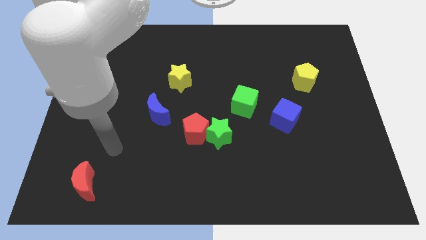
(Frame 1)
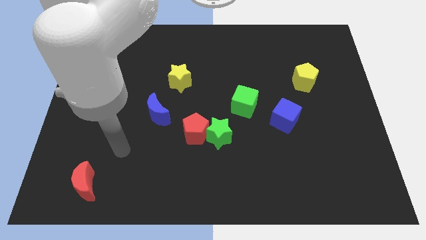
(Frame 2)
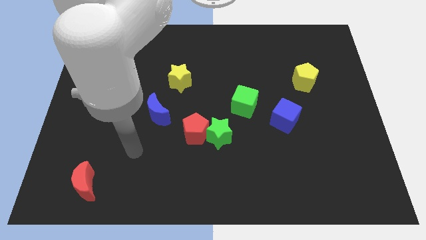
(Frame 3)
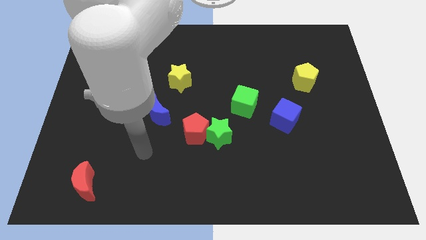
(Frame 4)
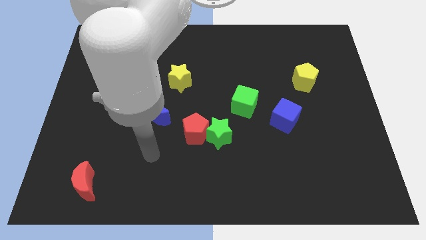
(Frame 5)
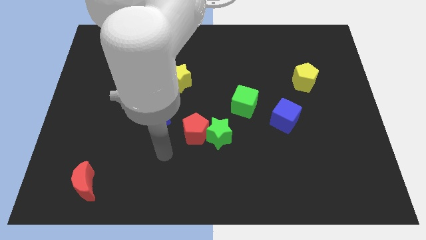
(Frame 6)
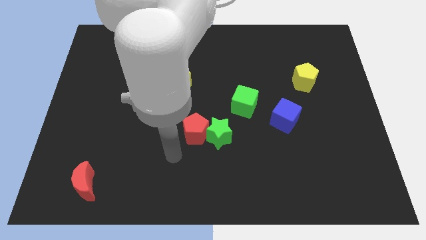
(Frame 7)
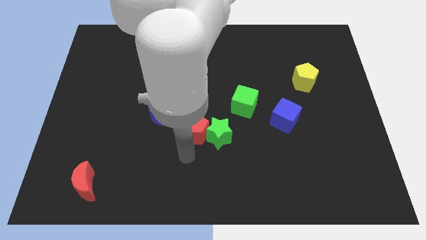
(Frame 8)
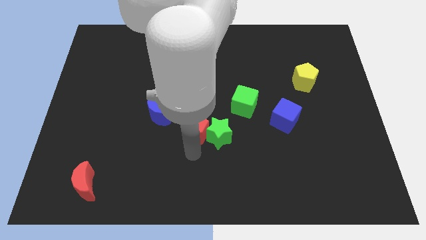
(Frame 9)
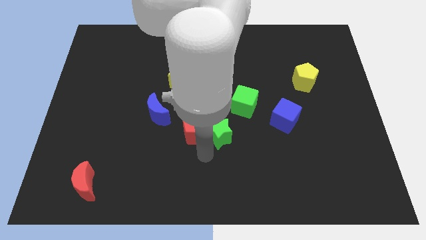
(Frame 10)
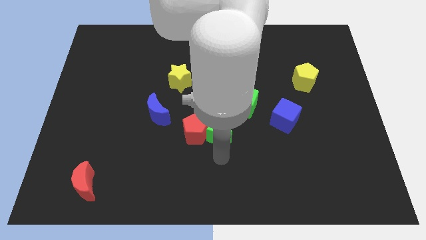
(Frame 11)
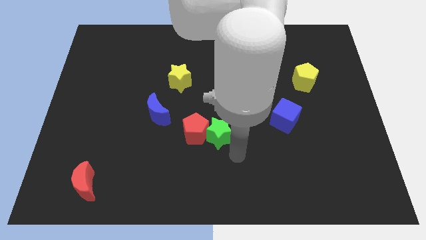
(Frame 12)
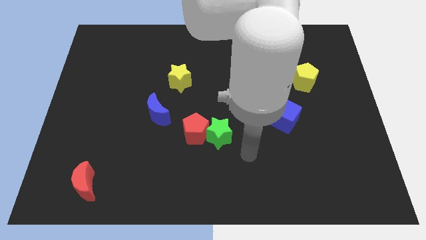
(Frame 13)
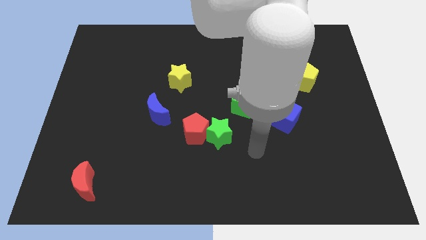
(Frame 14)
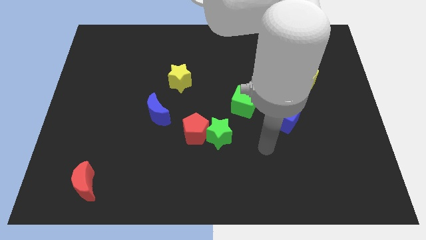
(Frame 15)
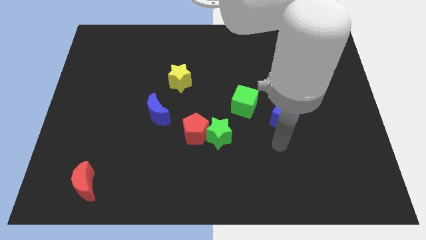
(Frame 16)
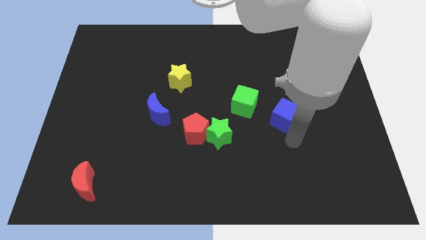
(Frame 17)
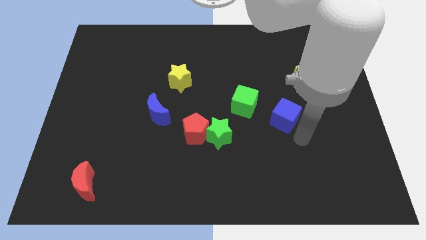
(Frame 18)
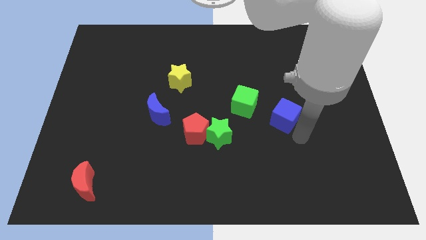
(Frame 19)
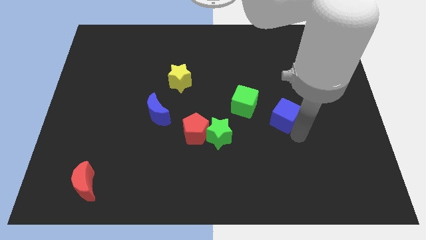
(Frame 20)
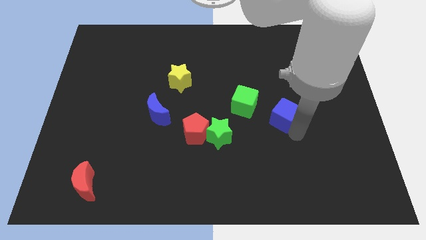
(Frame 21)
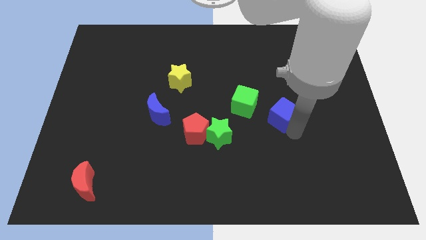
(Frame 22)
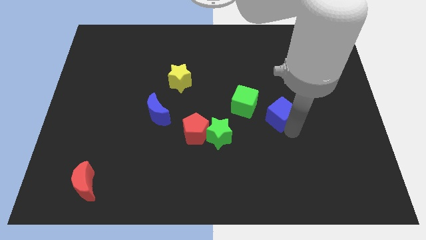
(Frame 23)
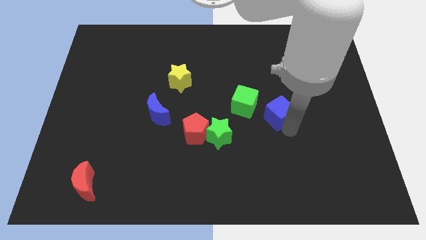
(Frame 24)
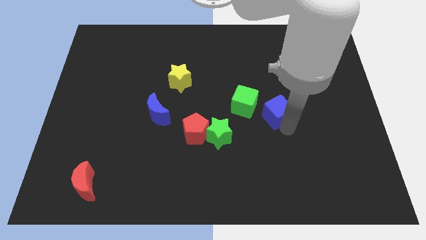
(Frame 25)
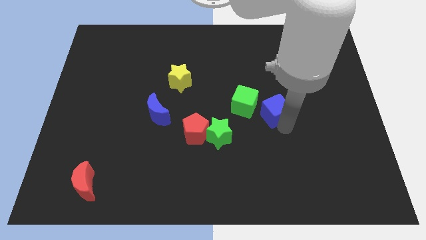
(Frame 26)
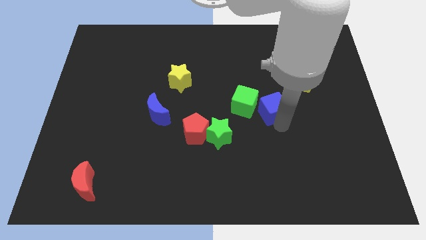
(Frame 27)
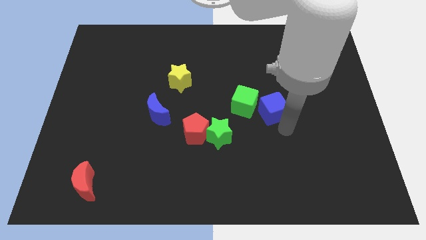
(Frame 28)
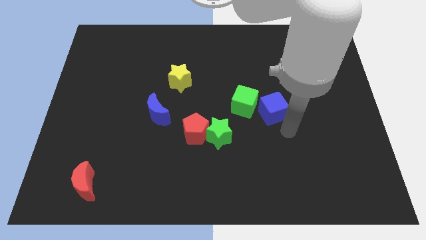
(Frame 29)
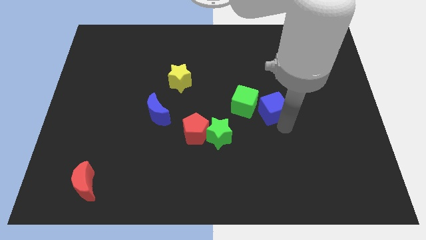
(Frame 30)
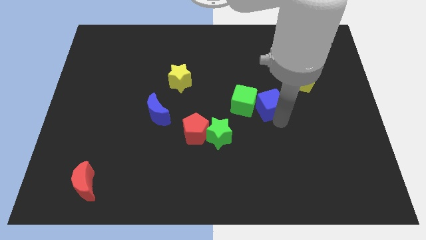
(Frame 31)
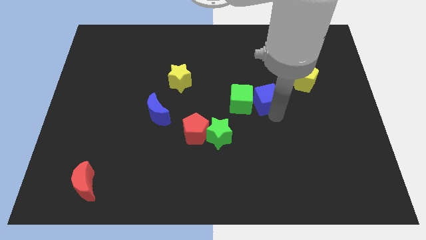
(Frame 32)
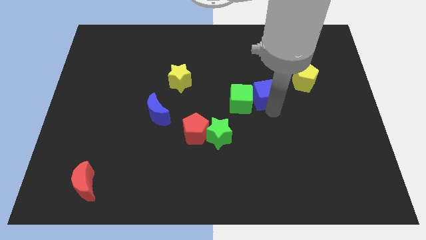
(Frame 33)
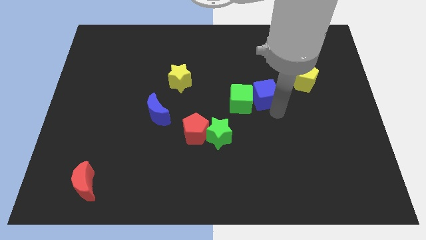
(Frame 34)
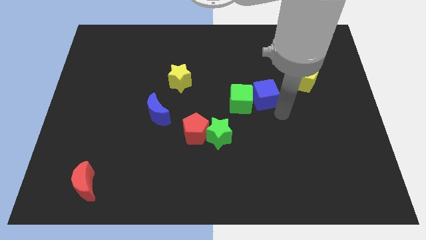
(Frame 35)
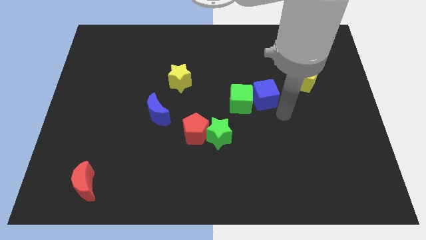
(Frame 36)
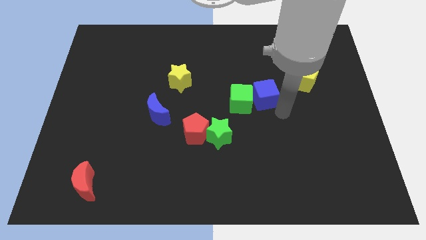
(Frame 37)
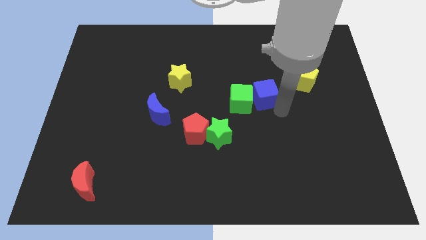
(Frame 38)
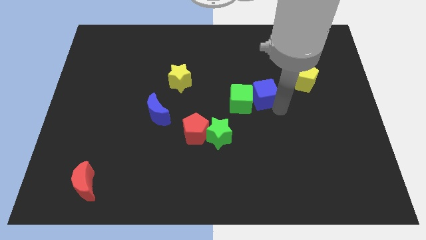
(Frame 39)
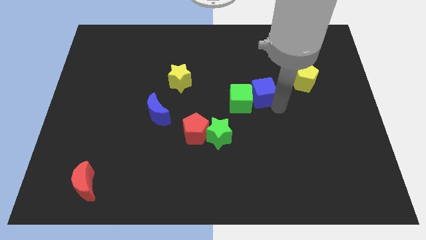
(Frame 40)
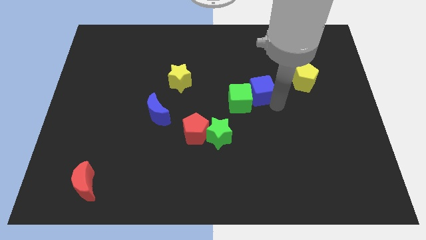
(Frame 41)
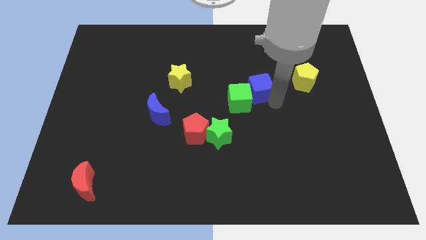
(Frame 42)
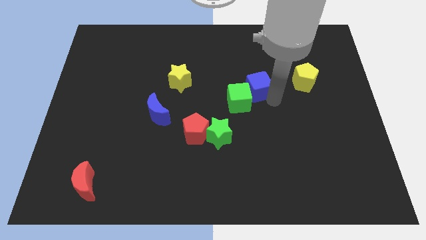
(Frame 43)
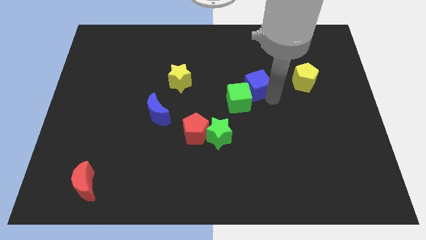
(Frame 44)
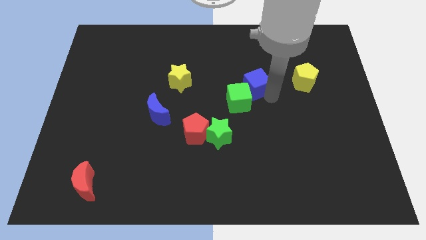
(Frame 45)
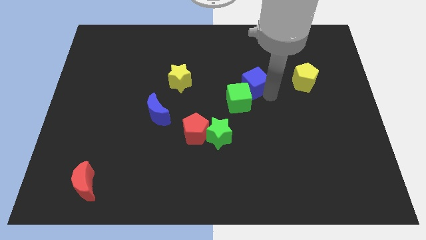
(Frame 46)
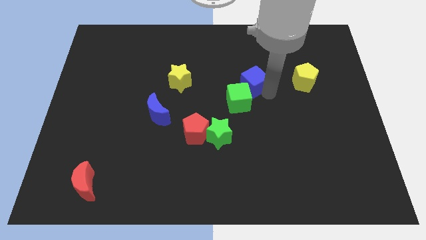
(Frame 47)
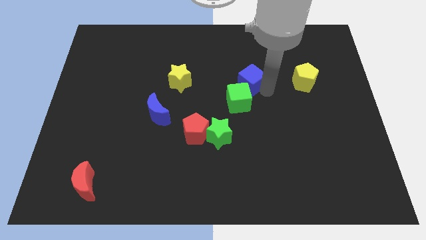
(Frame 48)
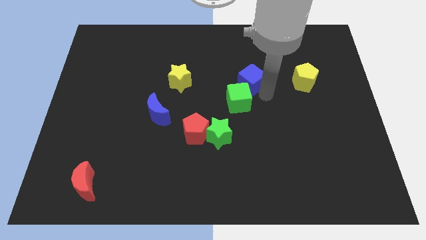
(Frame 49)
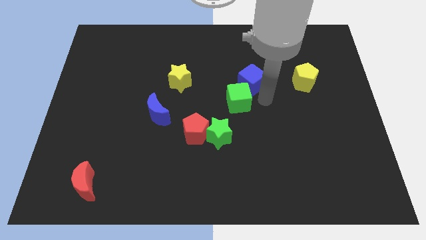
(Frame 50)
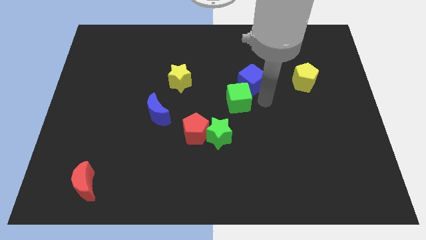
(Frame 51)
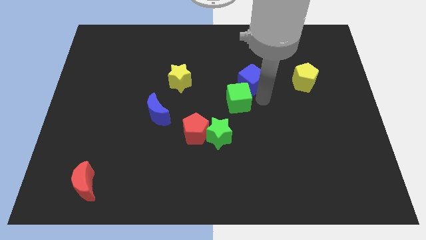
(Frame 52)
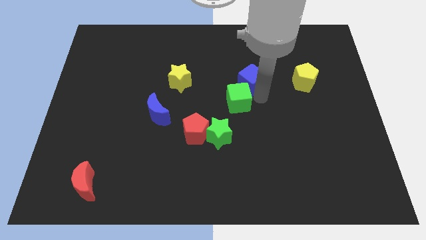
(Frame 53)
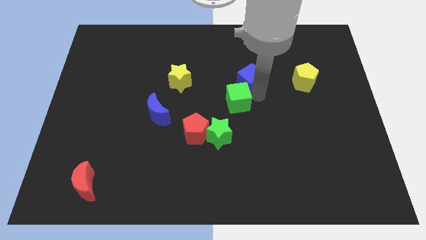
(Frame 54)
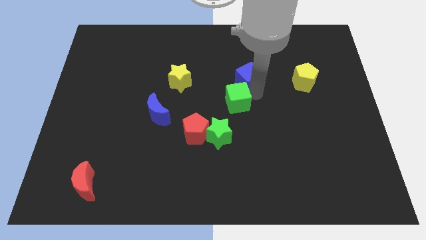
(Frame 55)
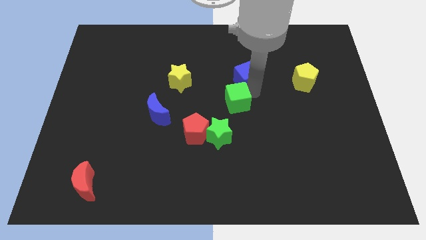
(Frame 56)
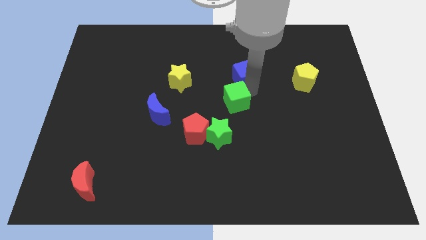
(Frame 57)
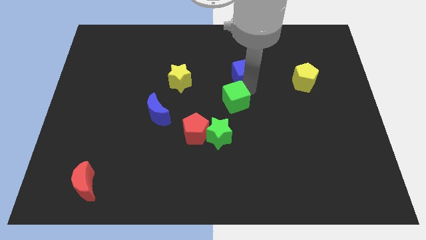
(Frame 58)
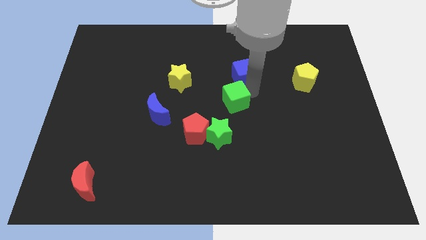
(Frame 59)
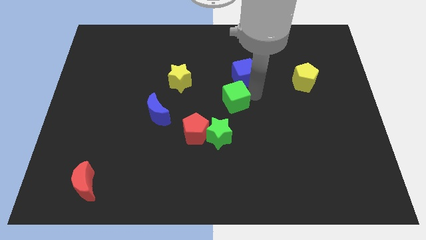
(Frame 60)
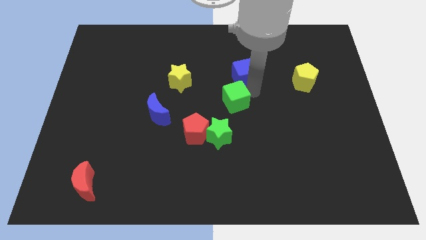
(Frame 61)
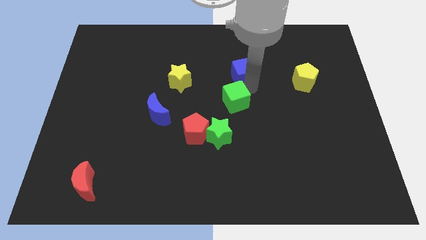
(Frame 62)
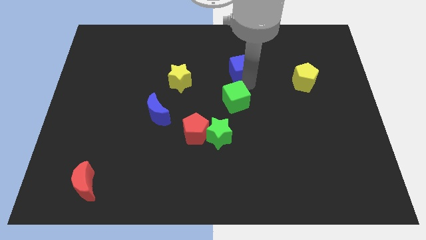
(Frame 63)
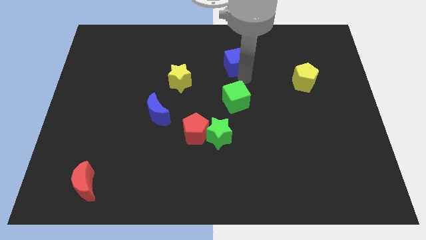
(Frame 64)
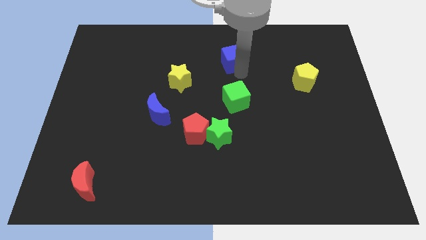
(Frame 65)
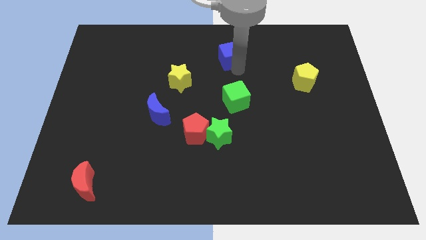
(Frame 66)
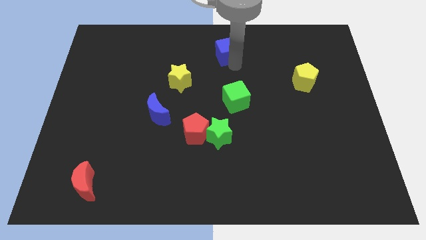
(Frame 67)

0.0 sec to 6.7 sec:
slide the blue cube to the top

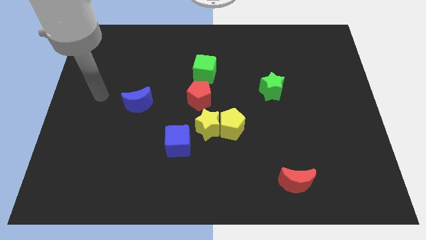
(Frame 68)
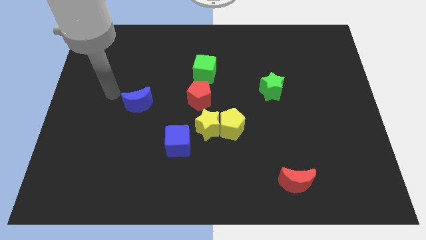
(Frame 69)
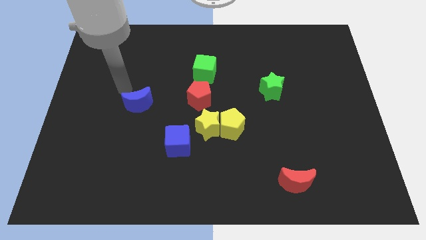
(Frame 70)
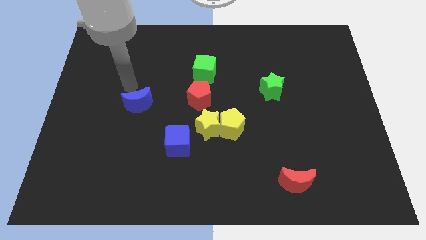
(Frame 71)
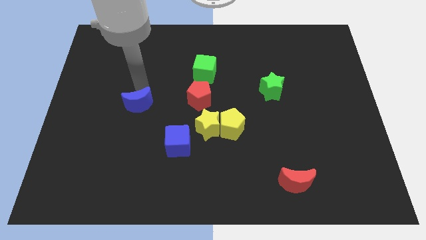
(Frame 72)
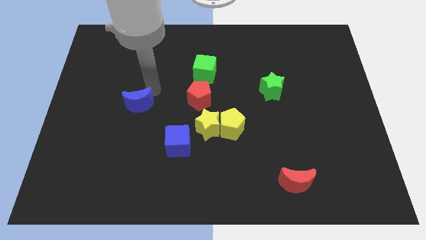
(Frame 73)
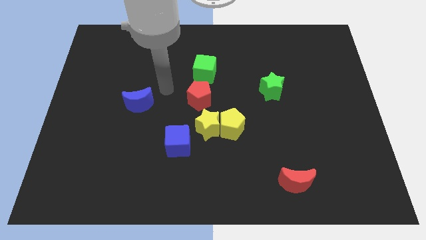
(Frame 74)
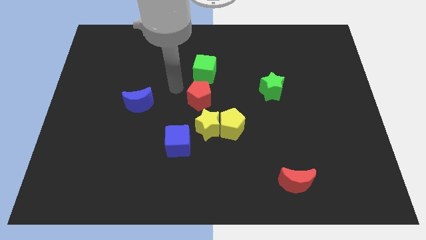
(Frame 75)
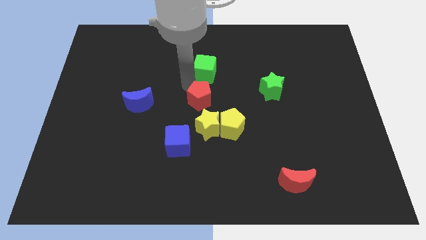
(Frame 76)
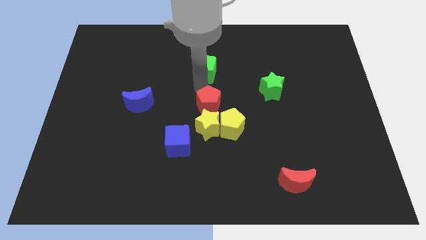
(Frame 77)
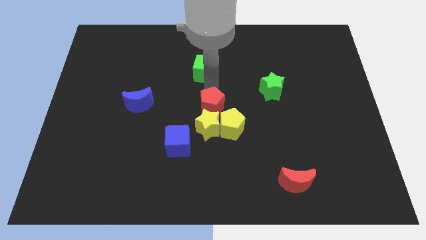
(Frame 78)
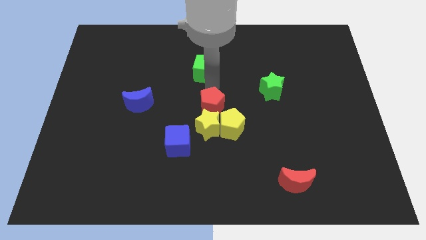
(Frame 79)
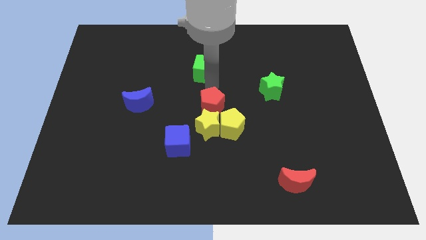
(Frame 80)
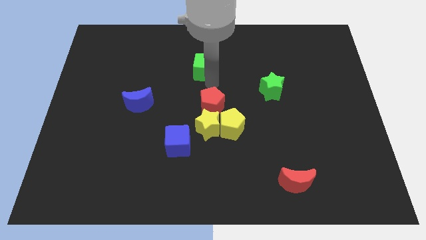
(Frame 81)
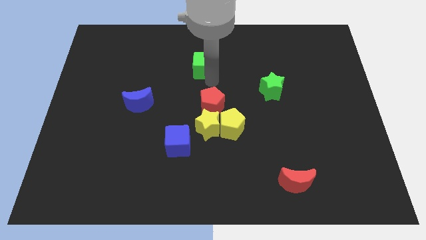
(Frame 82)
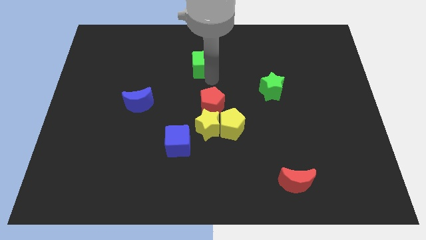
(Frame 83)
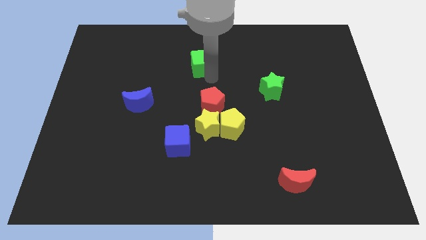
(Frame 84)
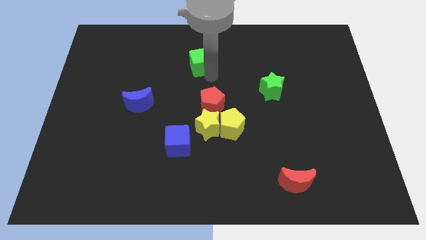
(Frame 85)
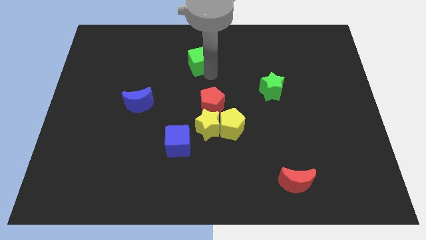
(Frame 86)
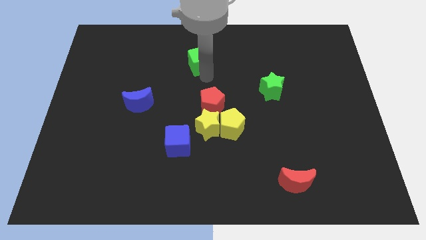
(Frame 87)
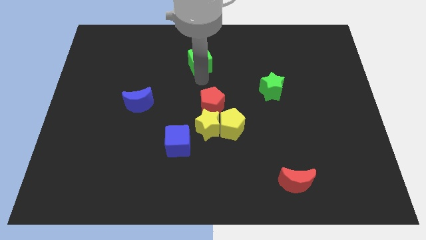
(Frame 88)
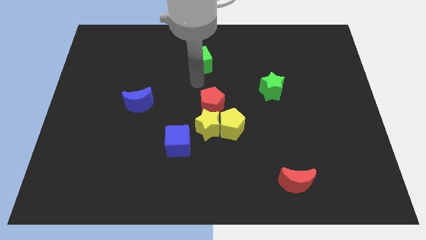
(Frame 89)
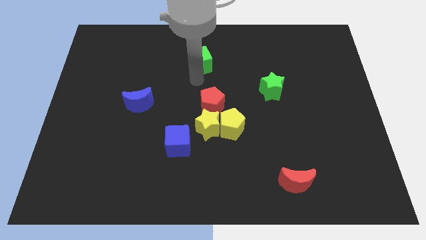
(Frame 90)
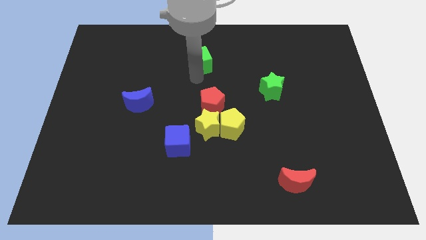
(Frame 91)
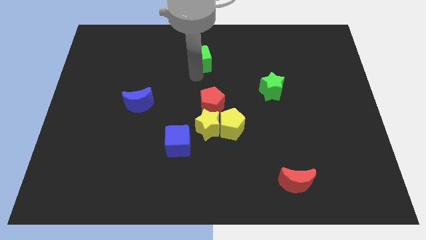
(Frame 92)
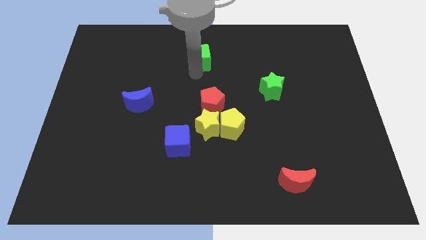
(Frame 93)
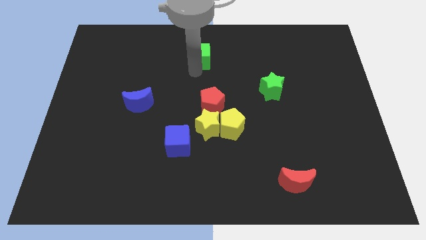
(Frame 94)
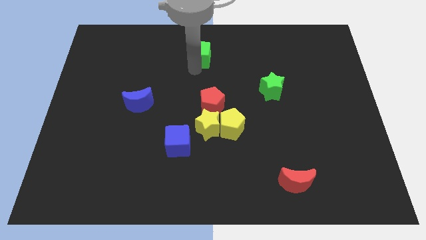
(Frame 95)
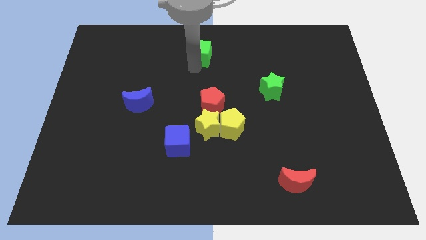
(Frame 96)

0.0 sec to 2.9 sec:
put the green cube to the top
